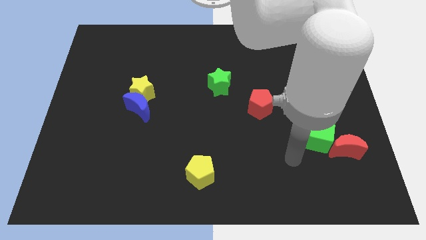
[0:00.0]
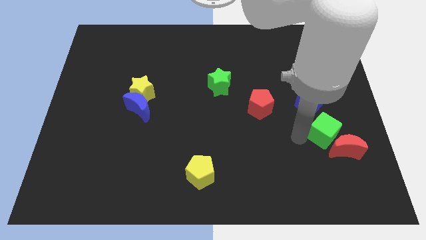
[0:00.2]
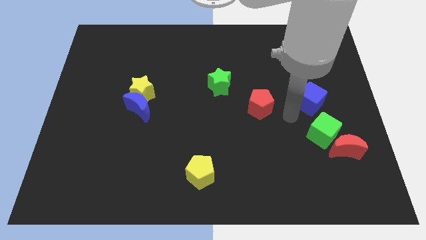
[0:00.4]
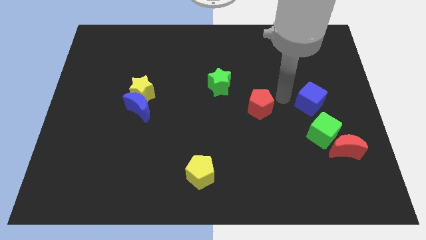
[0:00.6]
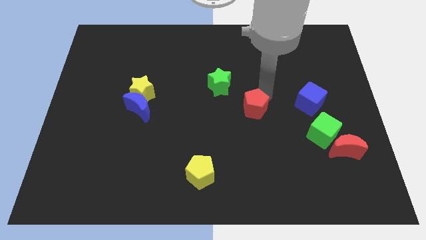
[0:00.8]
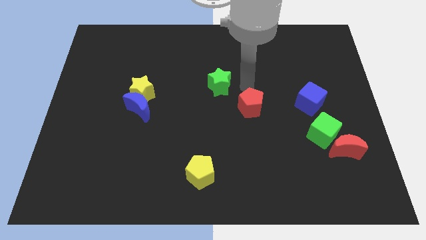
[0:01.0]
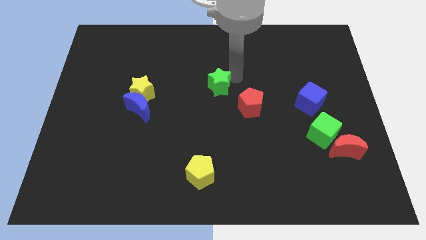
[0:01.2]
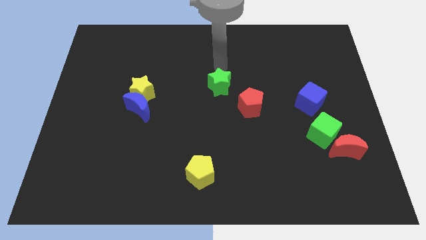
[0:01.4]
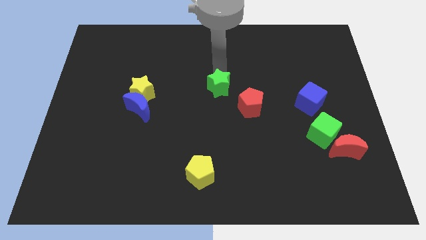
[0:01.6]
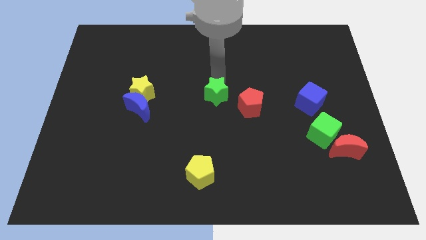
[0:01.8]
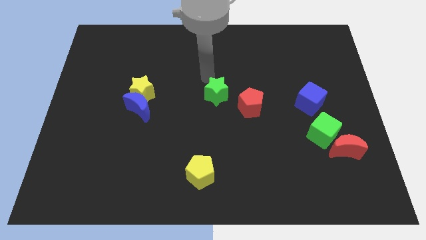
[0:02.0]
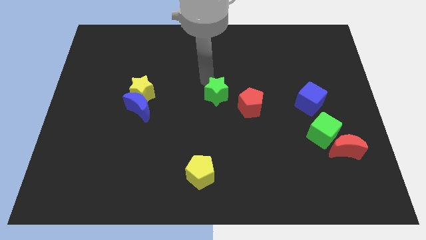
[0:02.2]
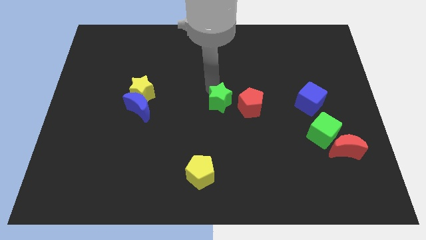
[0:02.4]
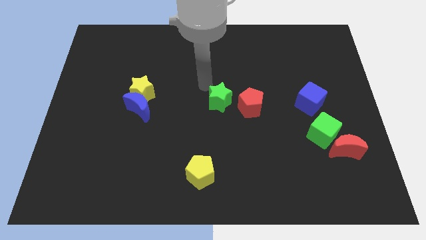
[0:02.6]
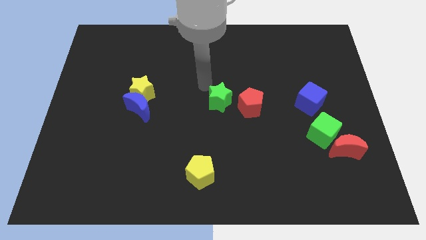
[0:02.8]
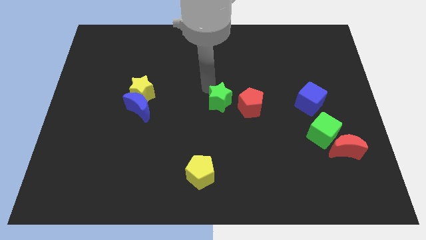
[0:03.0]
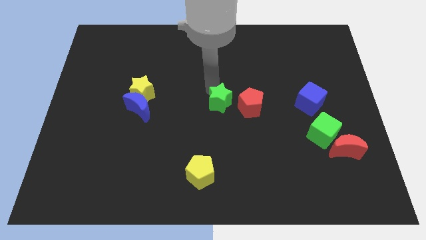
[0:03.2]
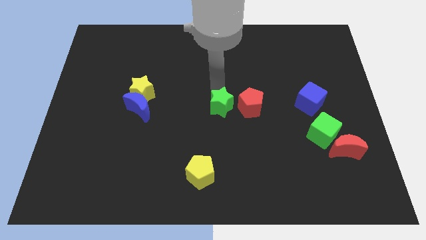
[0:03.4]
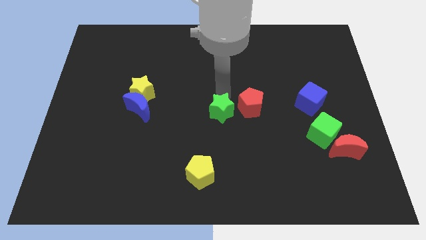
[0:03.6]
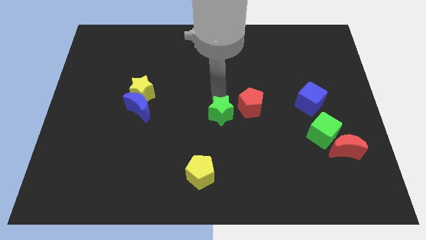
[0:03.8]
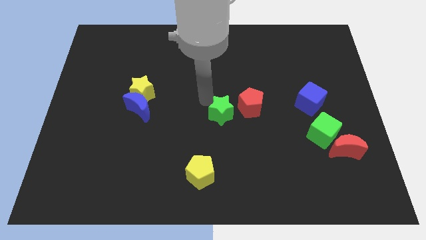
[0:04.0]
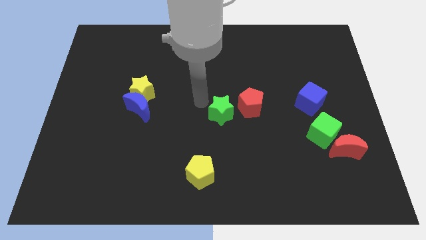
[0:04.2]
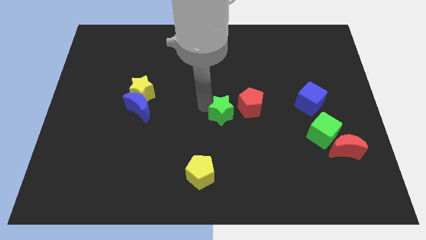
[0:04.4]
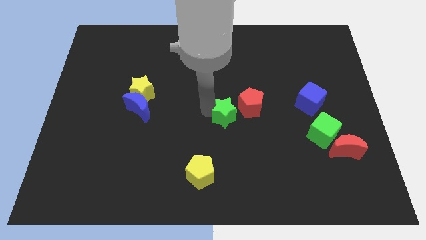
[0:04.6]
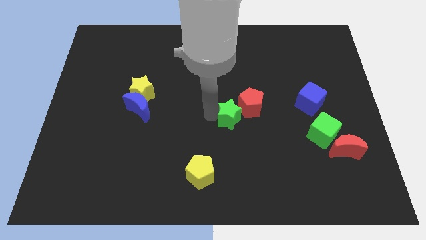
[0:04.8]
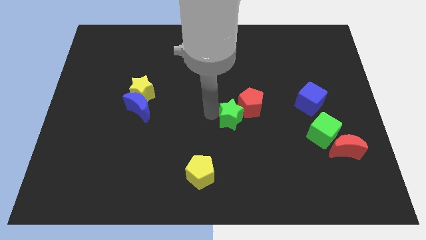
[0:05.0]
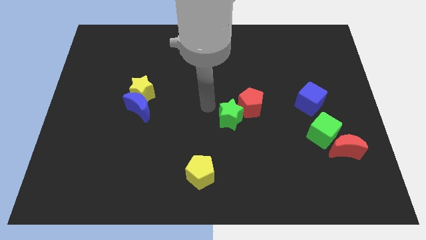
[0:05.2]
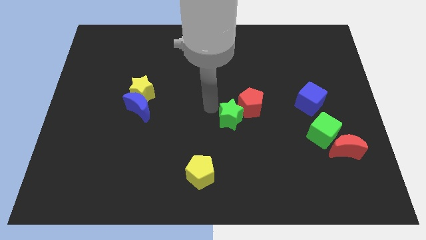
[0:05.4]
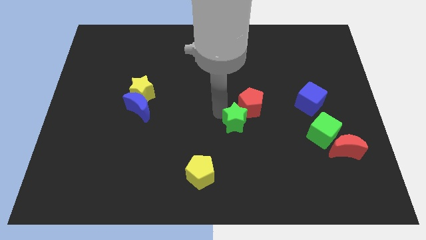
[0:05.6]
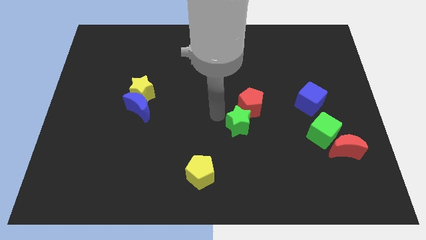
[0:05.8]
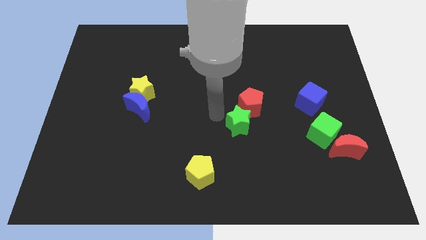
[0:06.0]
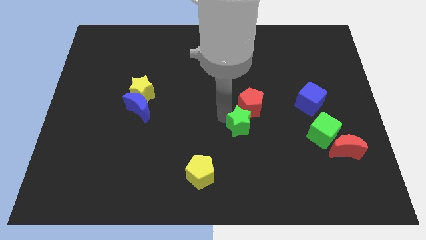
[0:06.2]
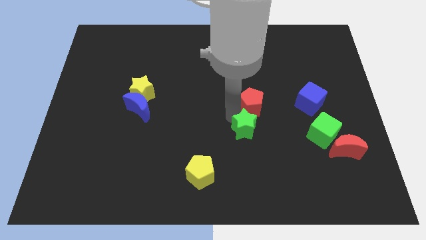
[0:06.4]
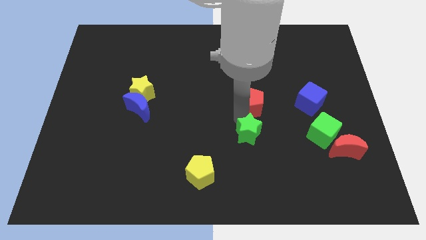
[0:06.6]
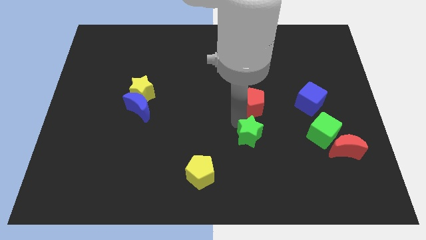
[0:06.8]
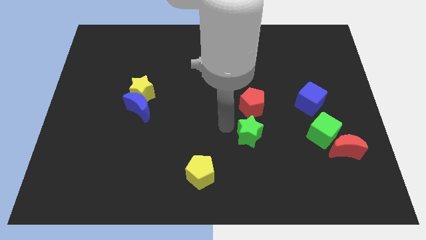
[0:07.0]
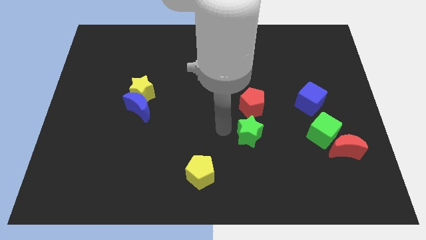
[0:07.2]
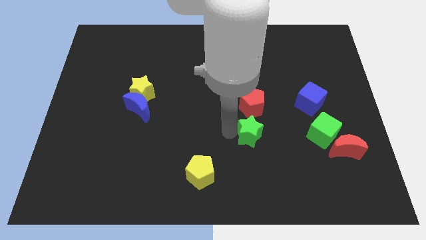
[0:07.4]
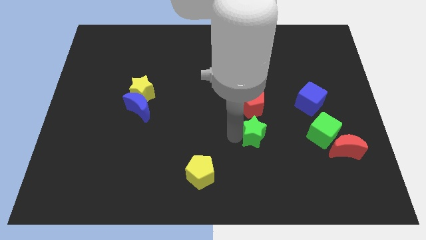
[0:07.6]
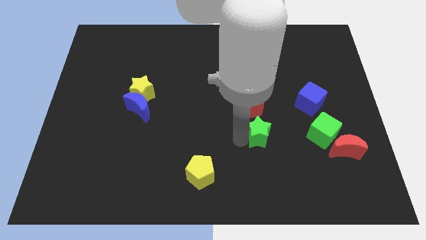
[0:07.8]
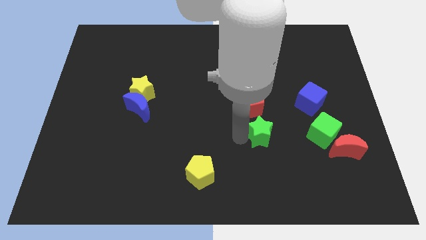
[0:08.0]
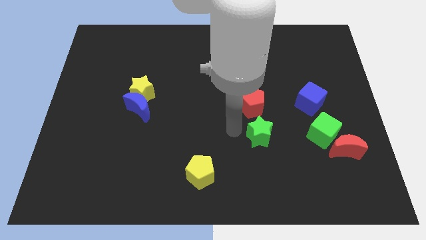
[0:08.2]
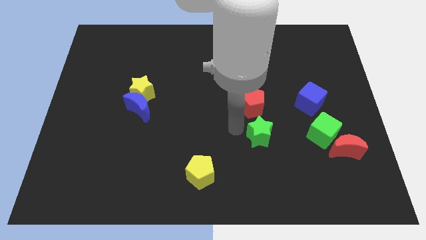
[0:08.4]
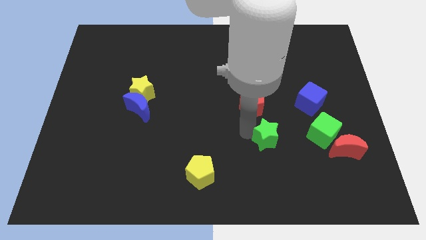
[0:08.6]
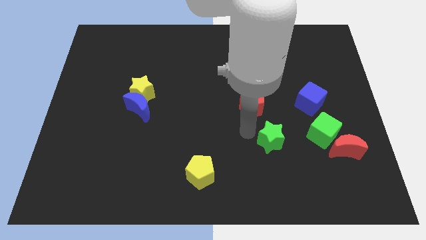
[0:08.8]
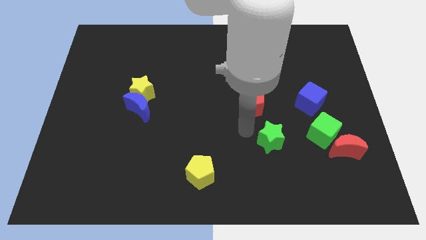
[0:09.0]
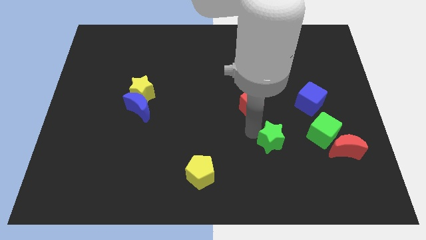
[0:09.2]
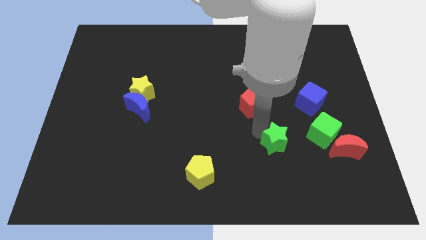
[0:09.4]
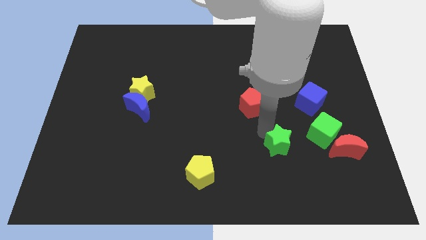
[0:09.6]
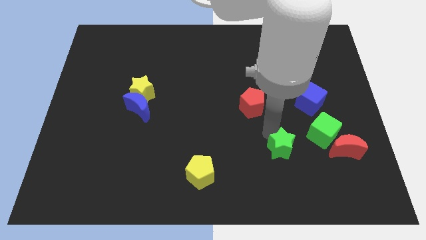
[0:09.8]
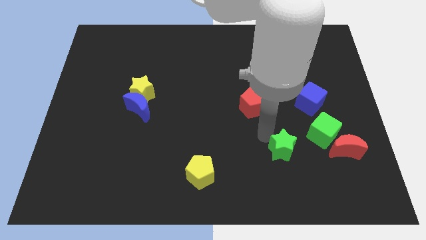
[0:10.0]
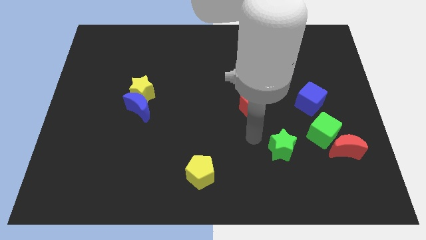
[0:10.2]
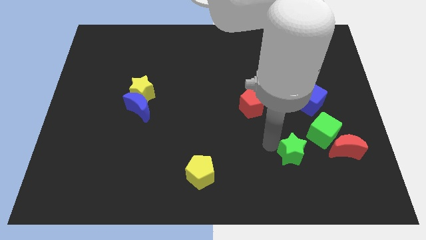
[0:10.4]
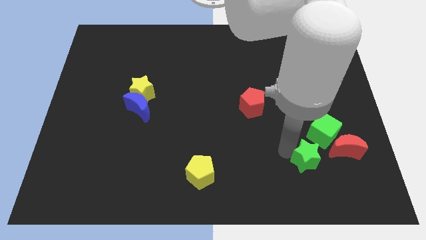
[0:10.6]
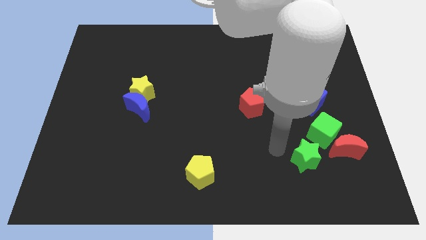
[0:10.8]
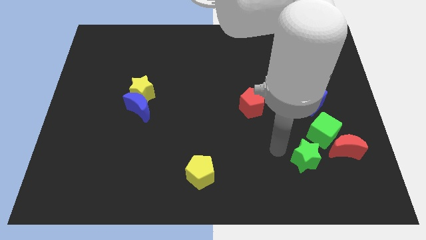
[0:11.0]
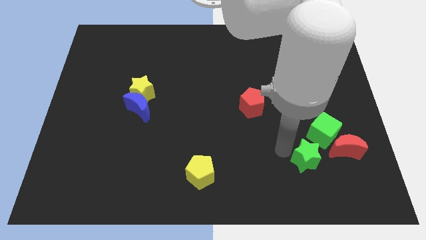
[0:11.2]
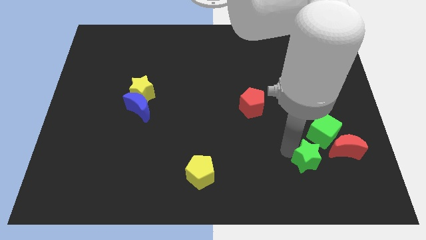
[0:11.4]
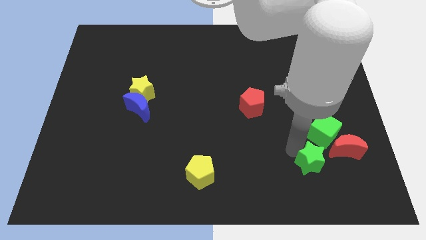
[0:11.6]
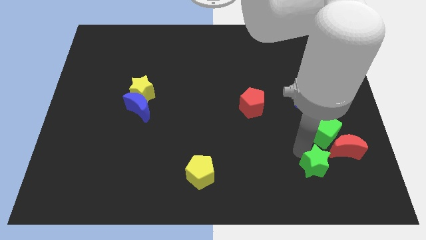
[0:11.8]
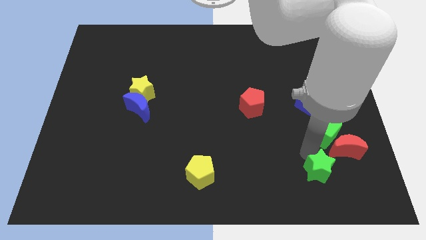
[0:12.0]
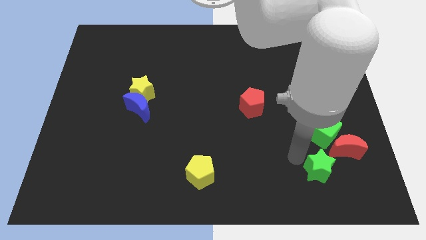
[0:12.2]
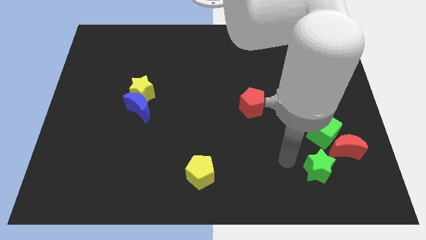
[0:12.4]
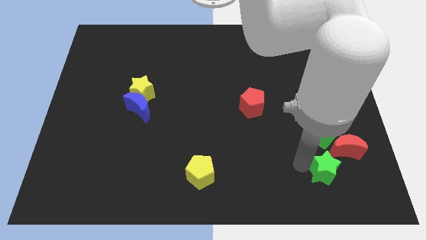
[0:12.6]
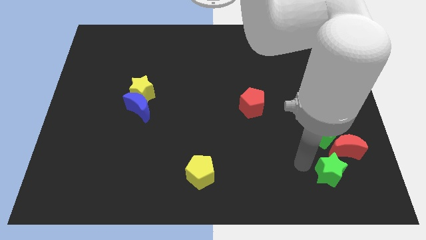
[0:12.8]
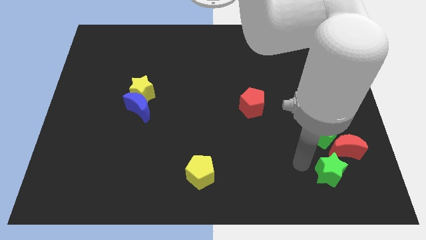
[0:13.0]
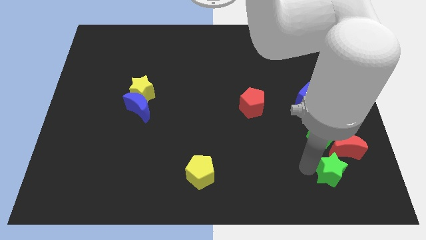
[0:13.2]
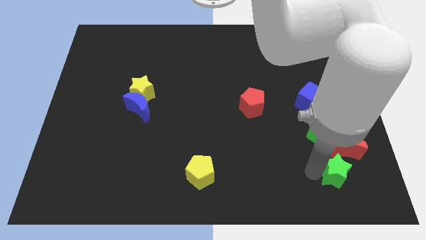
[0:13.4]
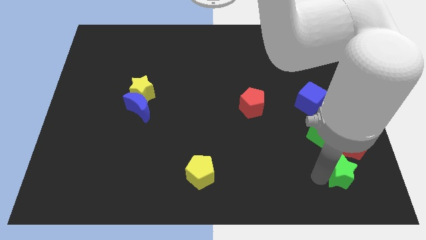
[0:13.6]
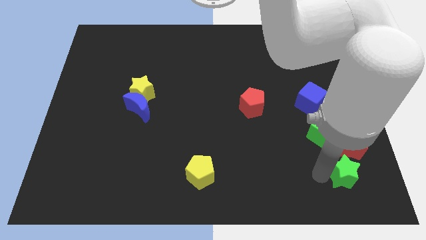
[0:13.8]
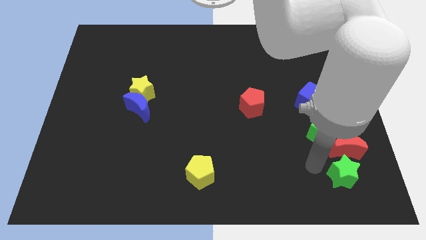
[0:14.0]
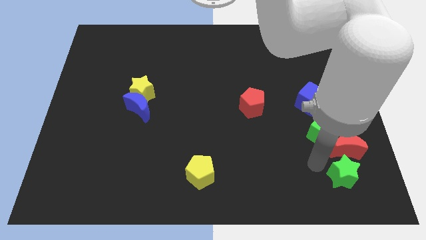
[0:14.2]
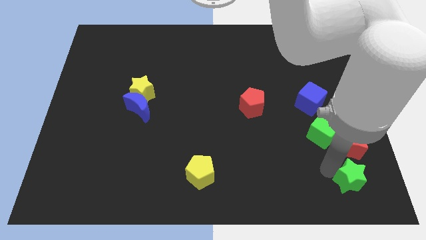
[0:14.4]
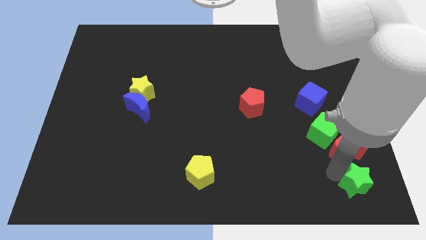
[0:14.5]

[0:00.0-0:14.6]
slide the green star to the bottom right corner
